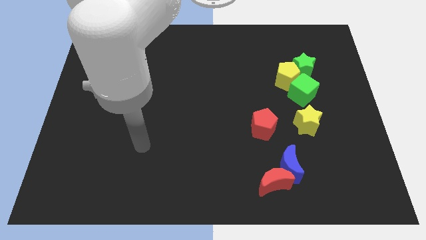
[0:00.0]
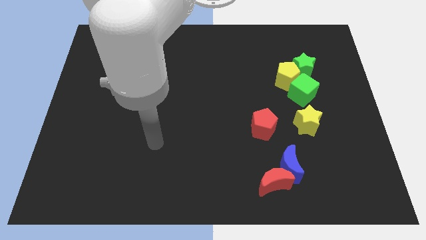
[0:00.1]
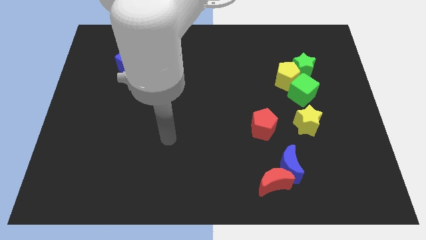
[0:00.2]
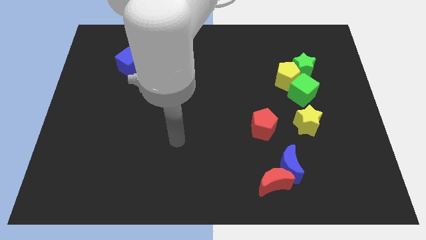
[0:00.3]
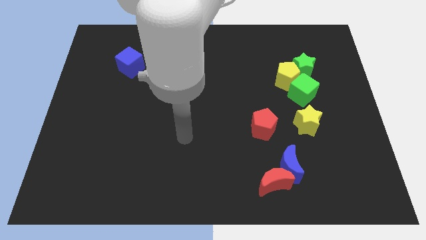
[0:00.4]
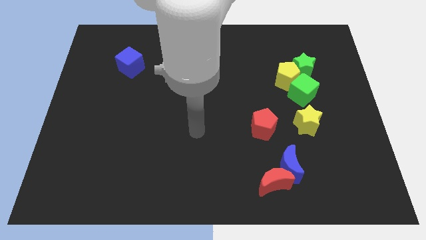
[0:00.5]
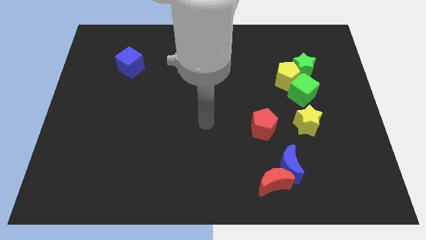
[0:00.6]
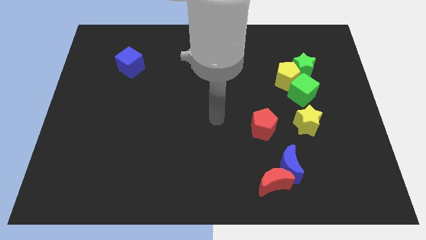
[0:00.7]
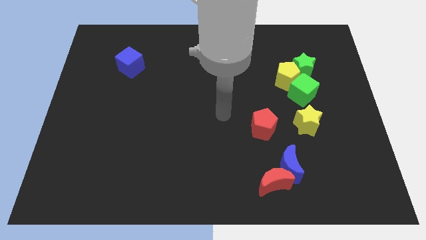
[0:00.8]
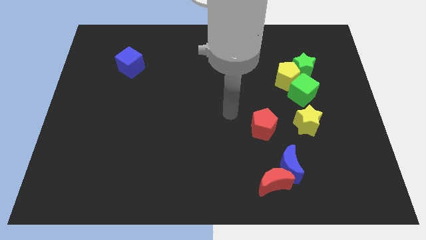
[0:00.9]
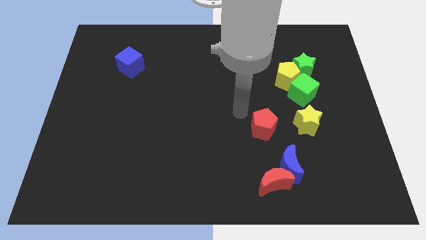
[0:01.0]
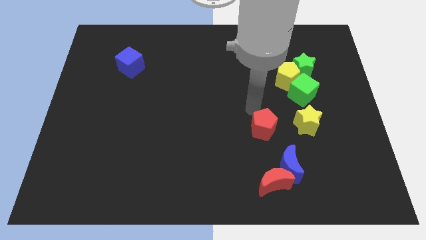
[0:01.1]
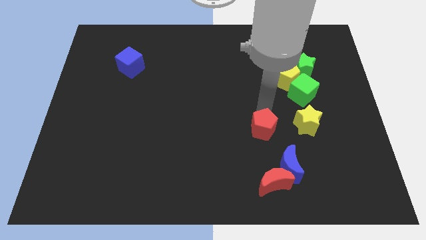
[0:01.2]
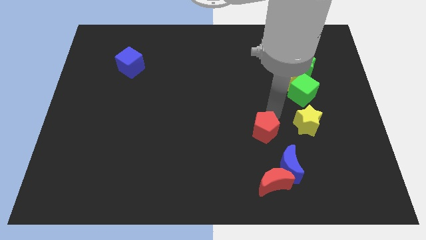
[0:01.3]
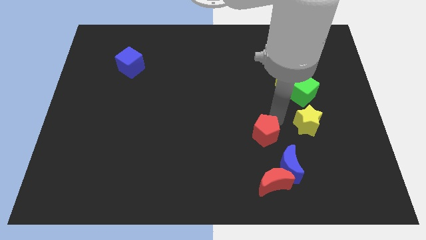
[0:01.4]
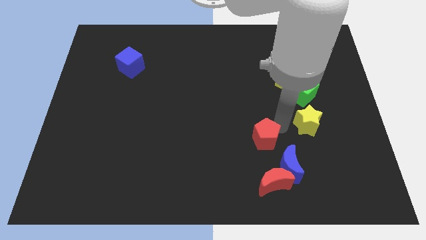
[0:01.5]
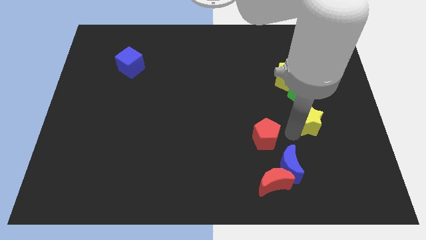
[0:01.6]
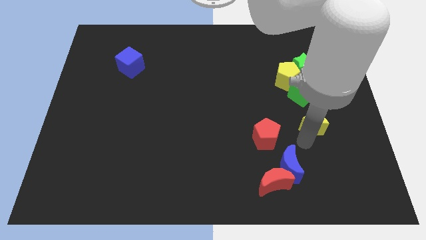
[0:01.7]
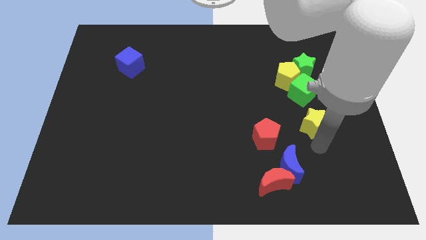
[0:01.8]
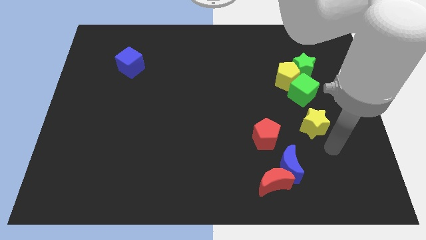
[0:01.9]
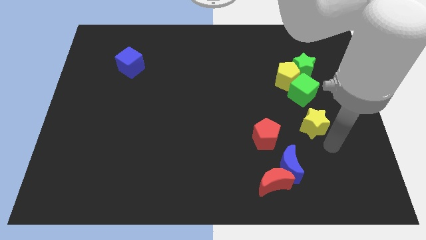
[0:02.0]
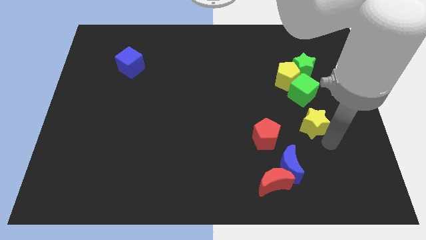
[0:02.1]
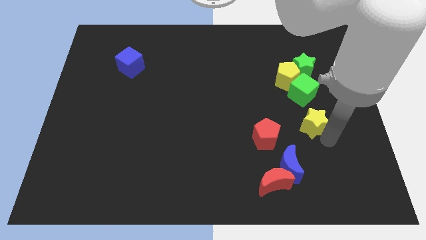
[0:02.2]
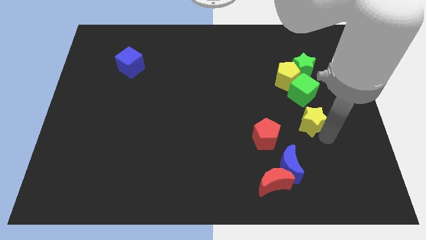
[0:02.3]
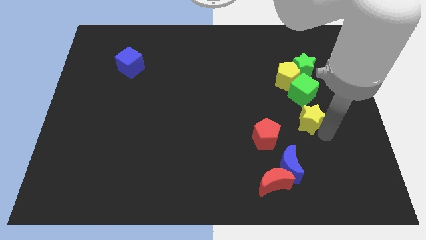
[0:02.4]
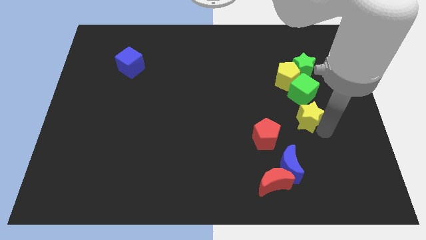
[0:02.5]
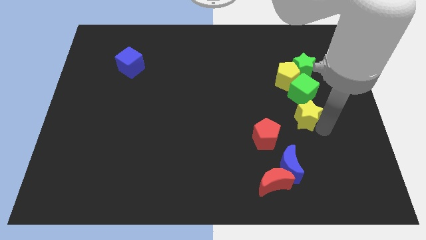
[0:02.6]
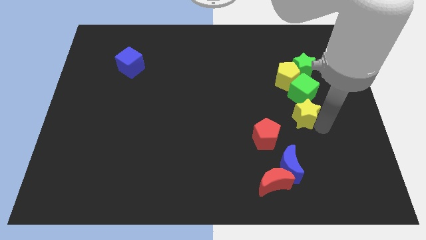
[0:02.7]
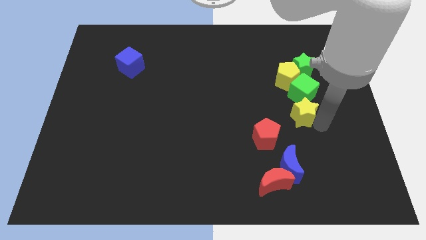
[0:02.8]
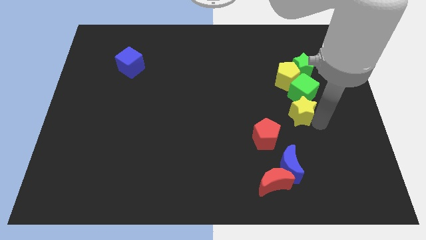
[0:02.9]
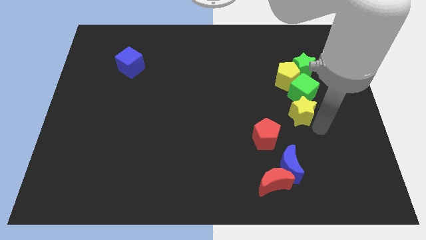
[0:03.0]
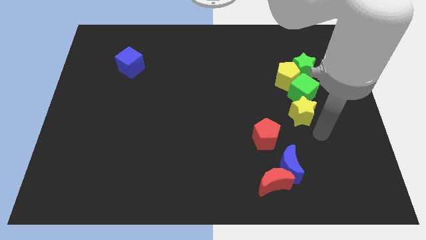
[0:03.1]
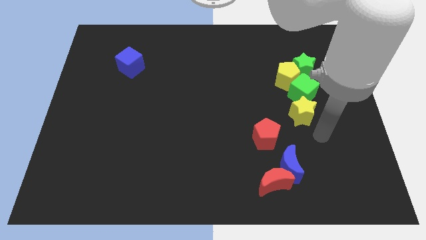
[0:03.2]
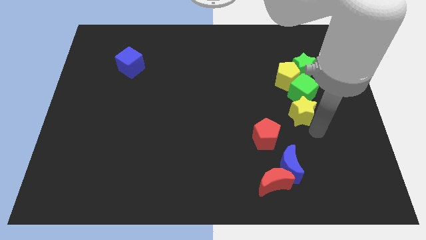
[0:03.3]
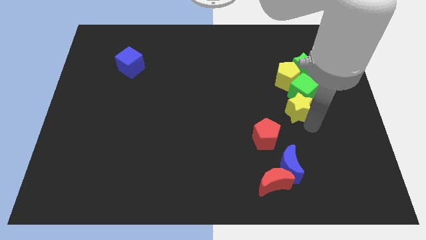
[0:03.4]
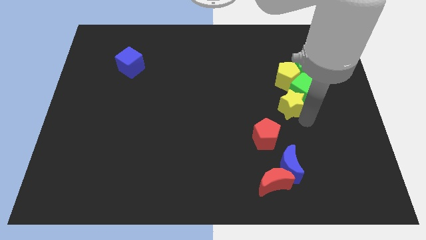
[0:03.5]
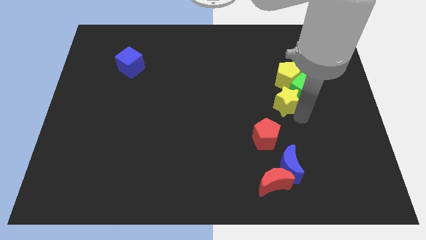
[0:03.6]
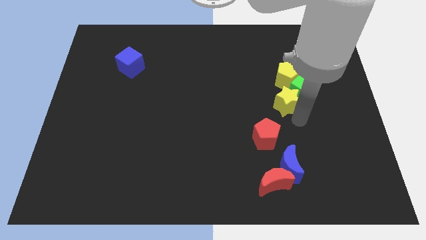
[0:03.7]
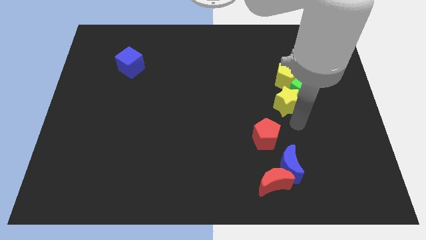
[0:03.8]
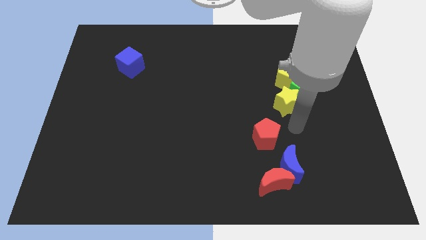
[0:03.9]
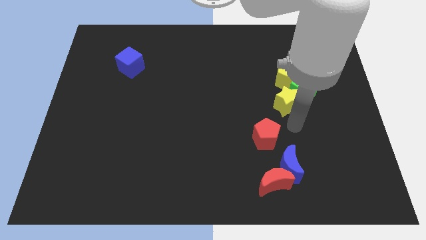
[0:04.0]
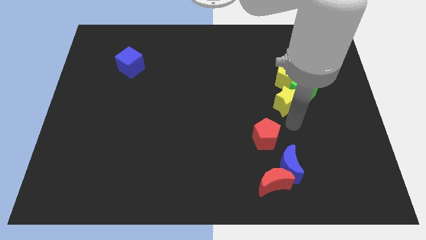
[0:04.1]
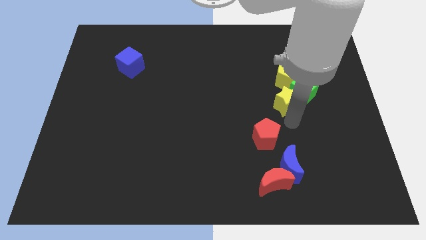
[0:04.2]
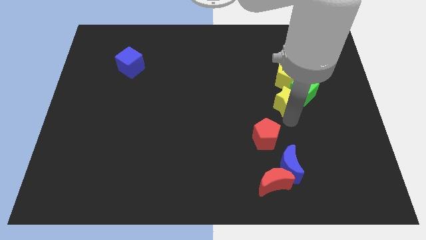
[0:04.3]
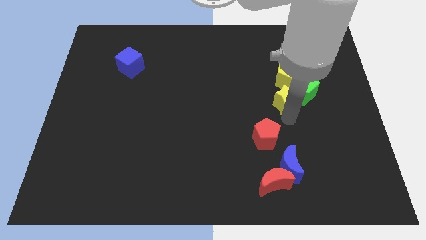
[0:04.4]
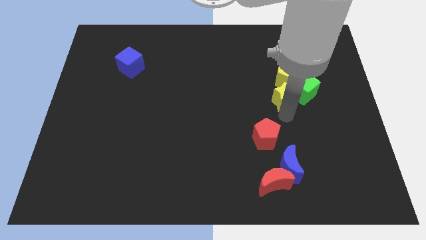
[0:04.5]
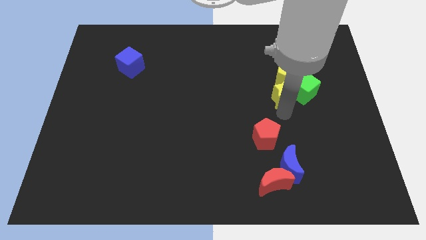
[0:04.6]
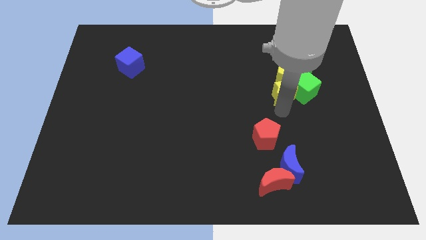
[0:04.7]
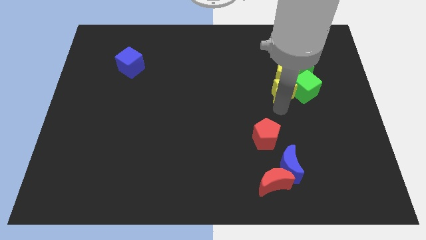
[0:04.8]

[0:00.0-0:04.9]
move the yellow star to the top left side of the green cube

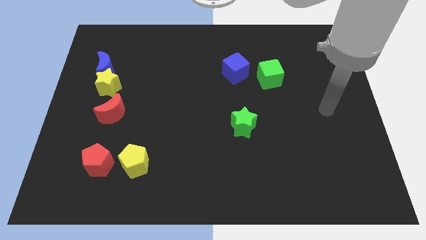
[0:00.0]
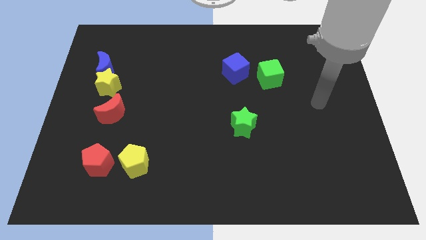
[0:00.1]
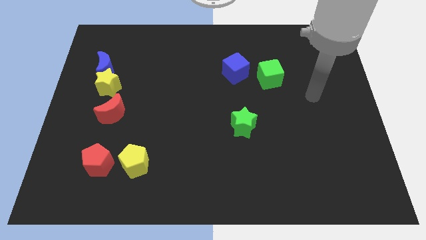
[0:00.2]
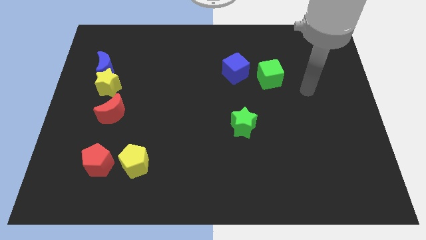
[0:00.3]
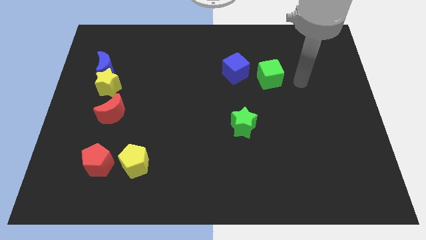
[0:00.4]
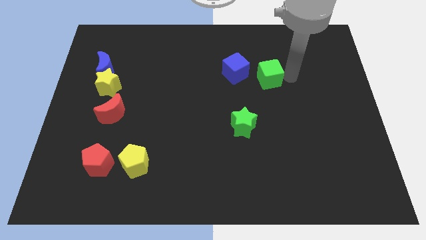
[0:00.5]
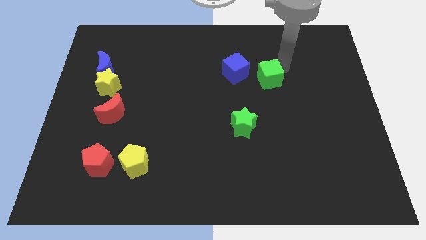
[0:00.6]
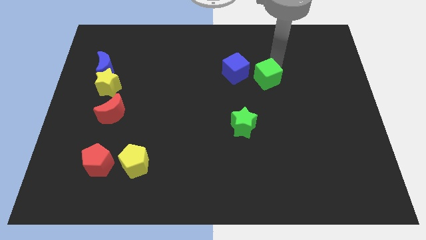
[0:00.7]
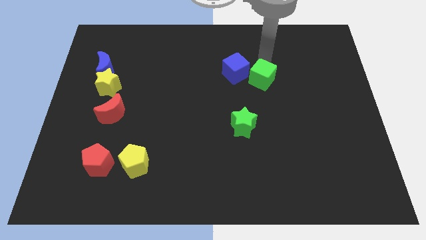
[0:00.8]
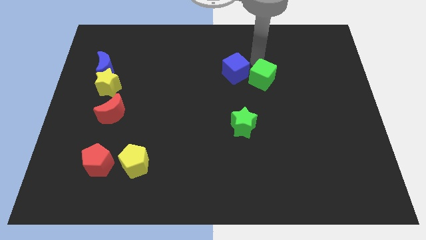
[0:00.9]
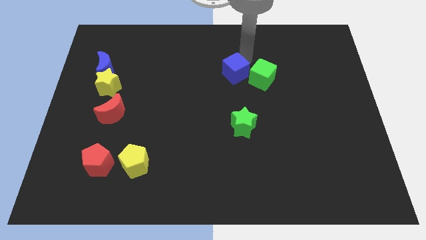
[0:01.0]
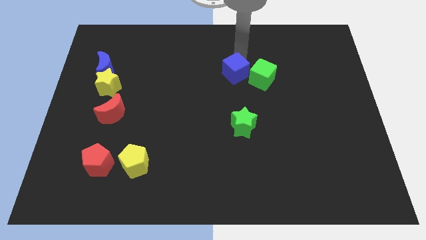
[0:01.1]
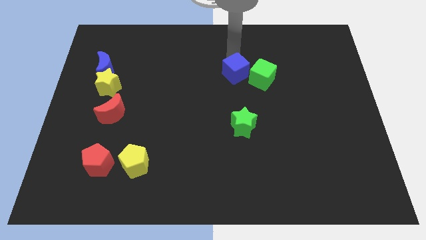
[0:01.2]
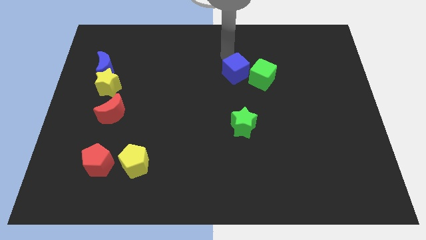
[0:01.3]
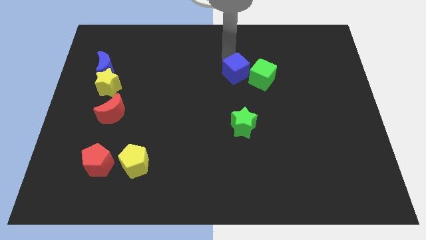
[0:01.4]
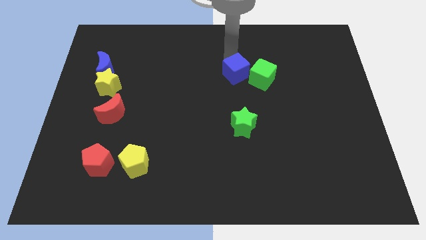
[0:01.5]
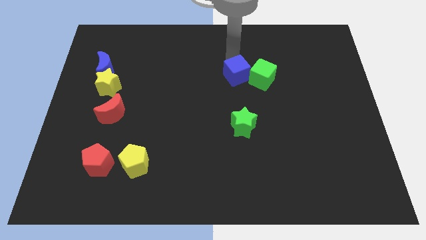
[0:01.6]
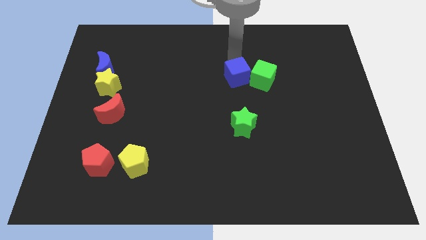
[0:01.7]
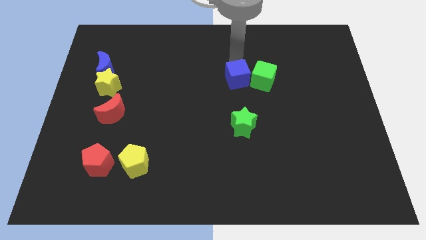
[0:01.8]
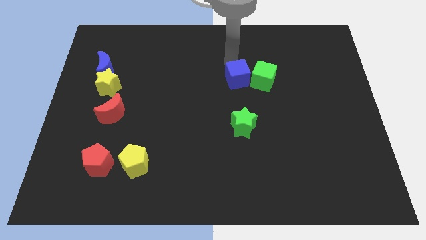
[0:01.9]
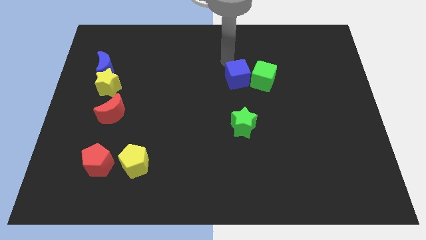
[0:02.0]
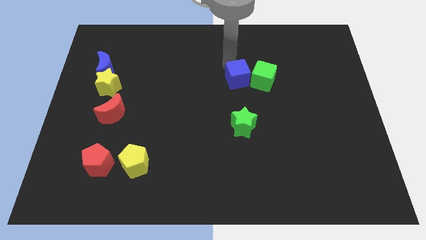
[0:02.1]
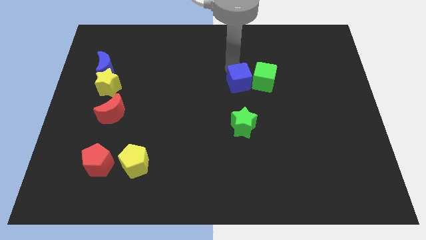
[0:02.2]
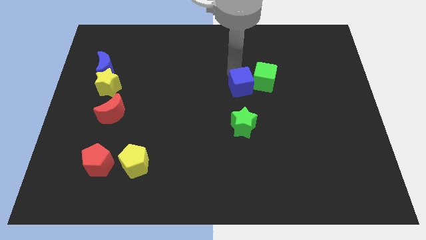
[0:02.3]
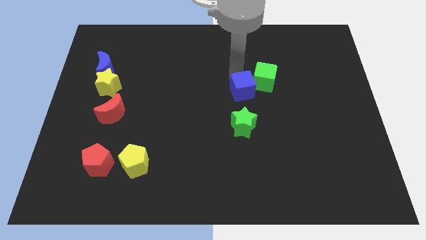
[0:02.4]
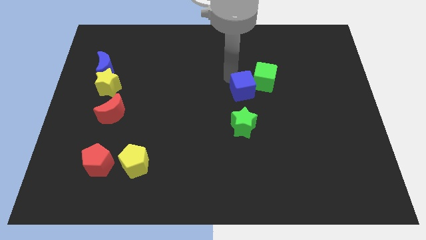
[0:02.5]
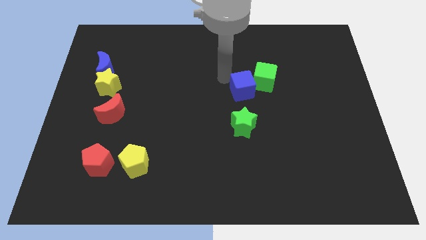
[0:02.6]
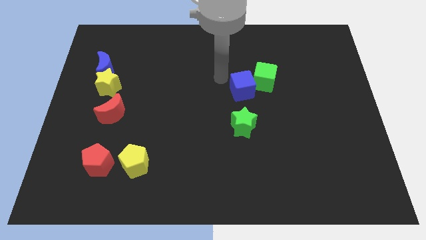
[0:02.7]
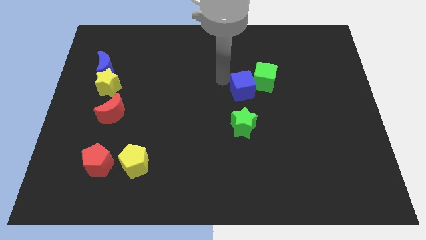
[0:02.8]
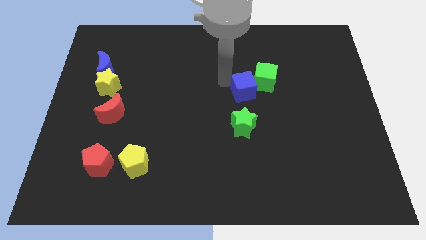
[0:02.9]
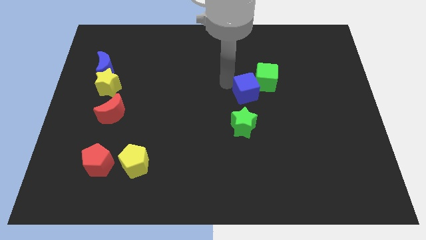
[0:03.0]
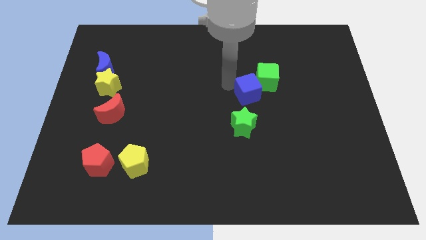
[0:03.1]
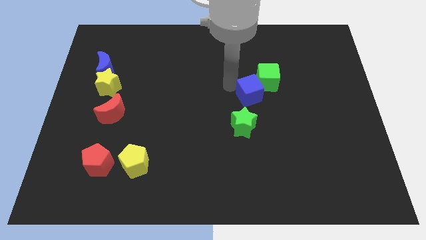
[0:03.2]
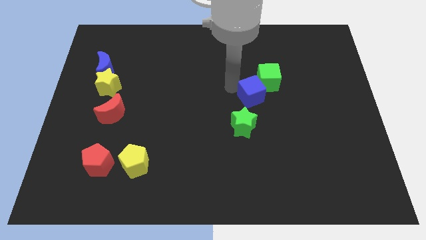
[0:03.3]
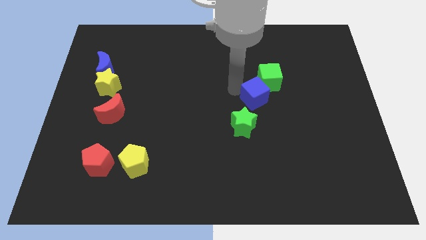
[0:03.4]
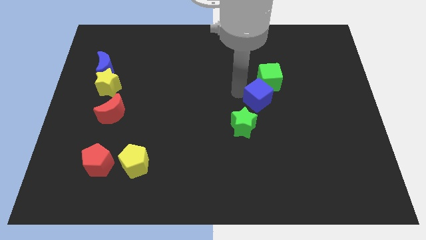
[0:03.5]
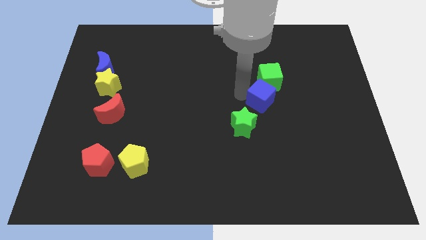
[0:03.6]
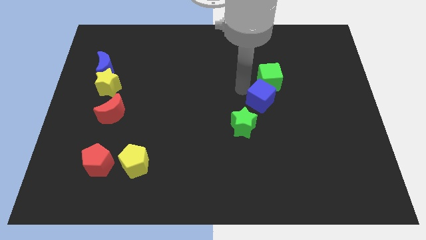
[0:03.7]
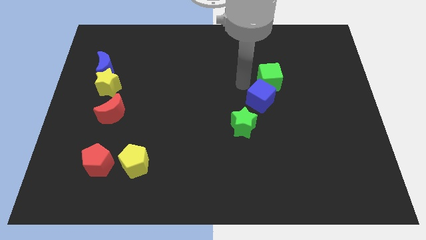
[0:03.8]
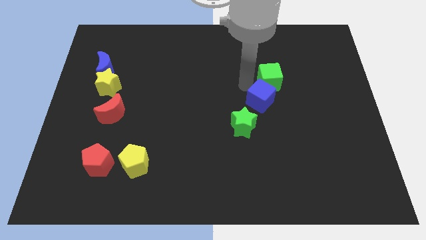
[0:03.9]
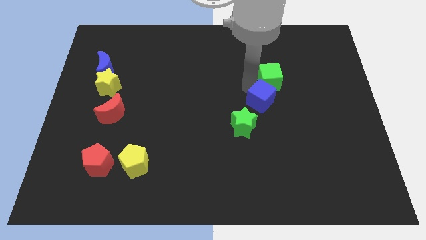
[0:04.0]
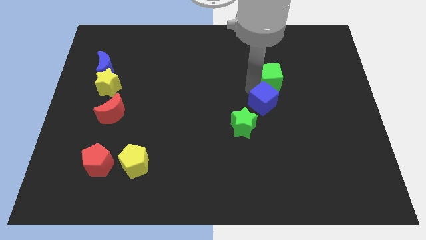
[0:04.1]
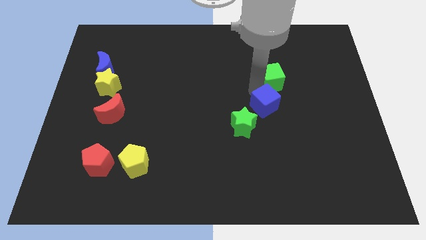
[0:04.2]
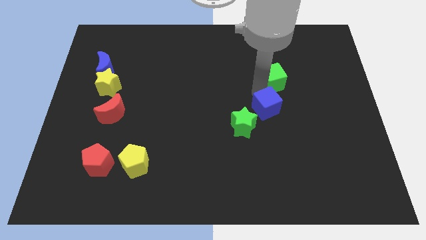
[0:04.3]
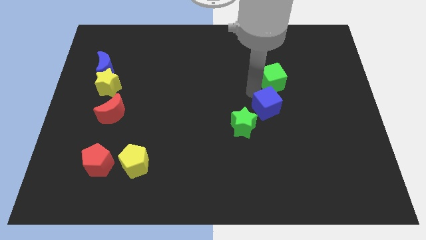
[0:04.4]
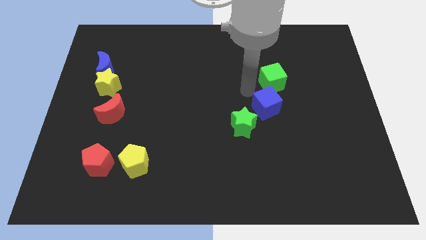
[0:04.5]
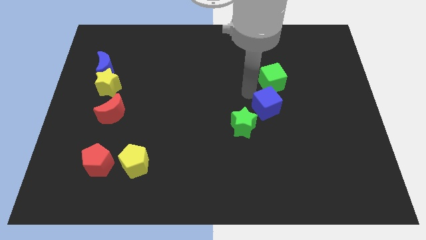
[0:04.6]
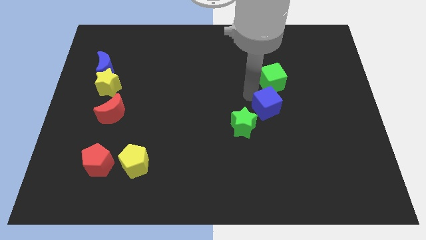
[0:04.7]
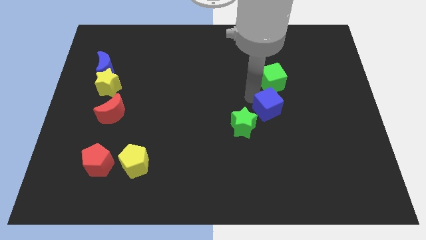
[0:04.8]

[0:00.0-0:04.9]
move the blue cube right of the green star
